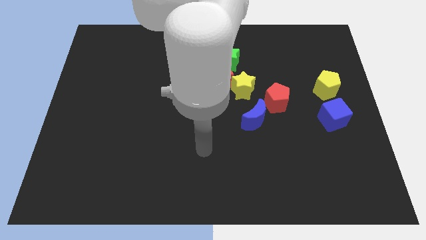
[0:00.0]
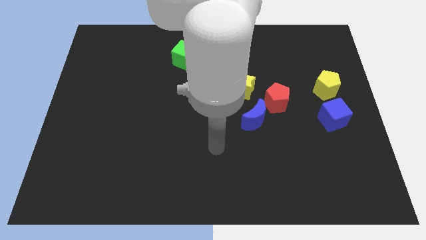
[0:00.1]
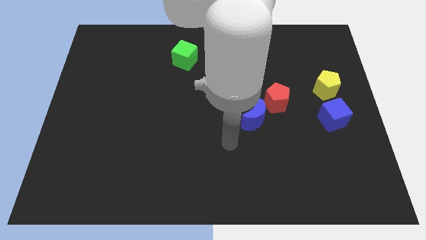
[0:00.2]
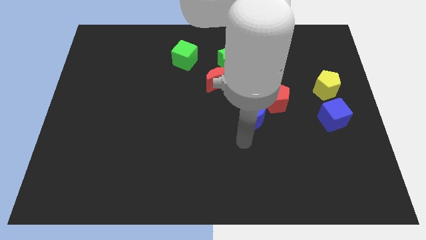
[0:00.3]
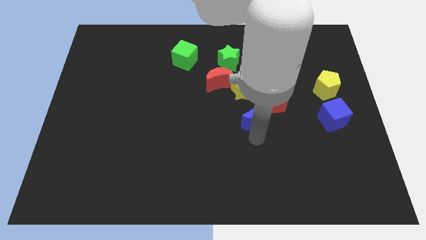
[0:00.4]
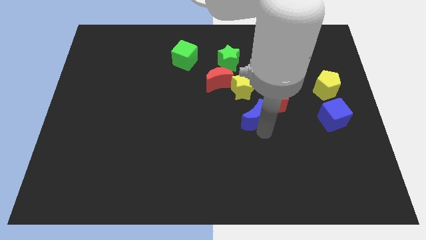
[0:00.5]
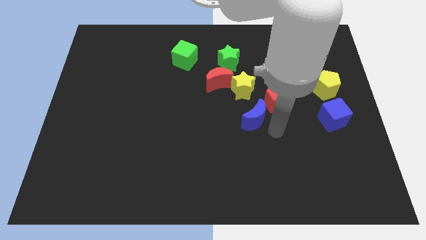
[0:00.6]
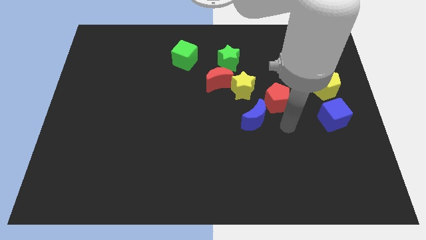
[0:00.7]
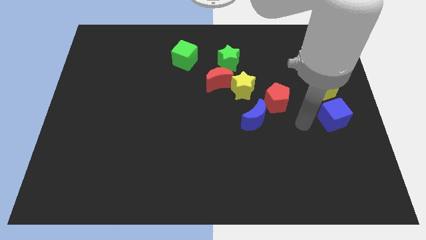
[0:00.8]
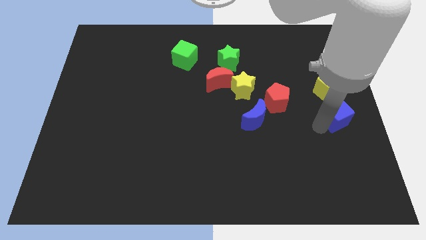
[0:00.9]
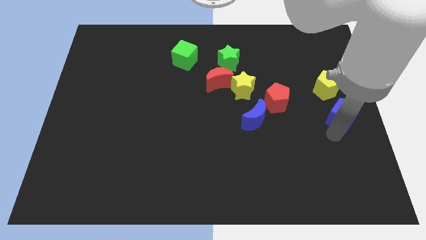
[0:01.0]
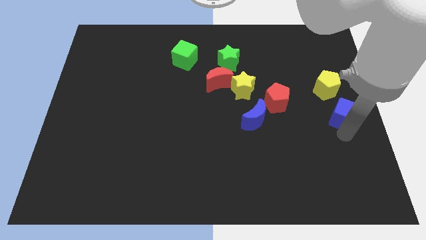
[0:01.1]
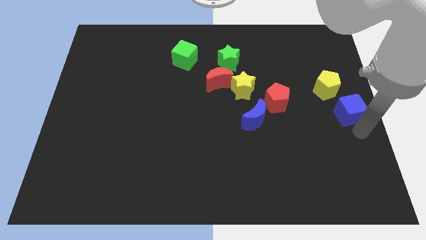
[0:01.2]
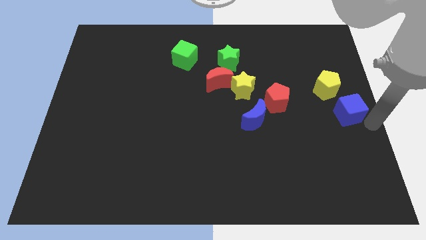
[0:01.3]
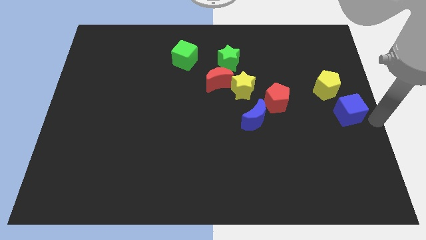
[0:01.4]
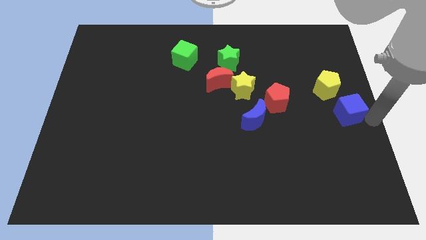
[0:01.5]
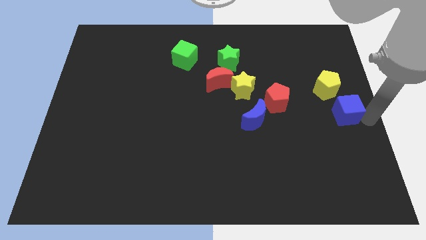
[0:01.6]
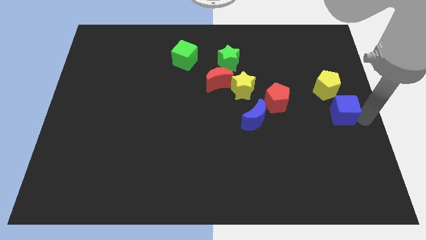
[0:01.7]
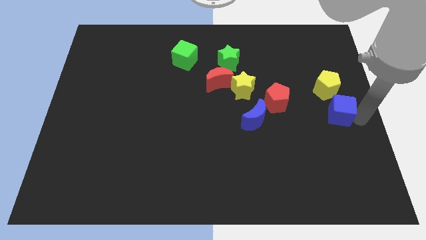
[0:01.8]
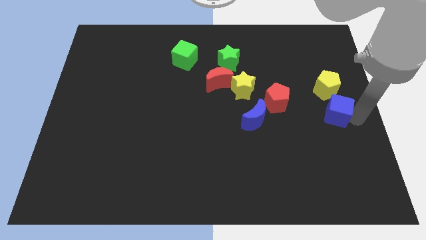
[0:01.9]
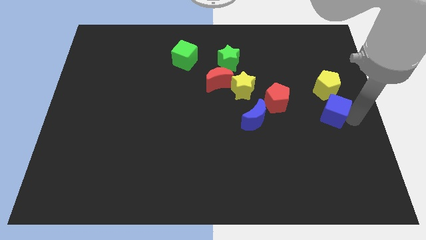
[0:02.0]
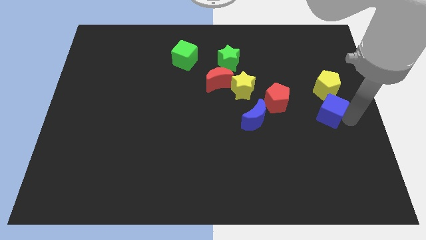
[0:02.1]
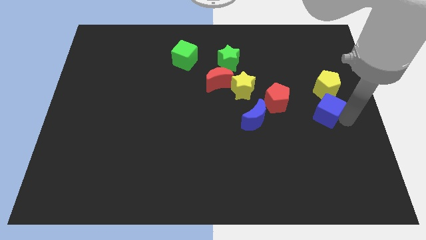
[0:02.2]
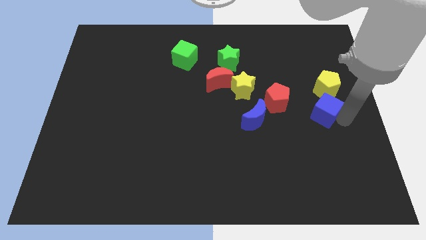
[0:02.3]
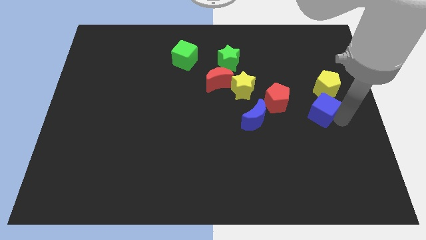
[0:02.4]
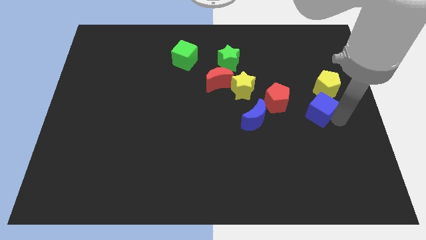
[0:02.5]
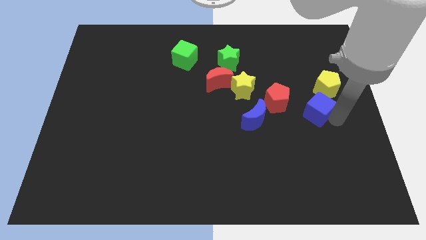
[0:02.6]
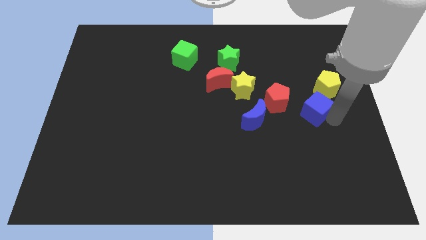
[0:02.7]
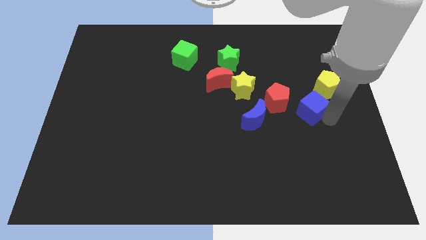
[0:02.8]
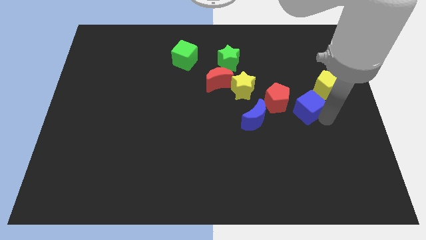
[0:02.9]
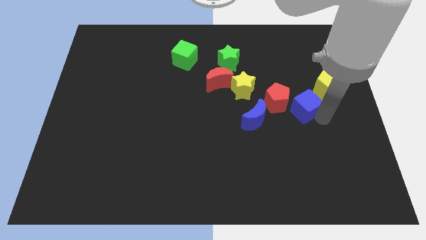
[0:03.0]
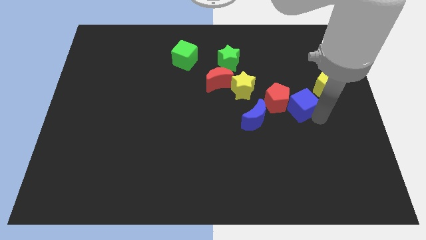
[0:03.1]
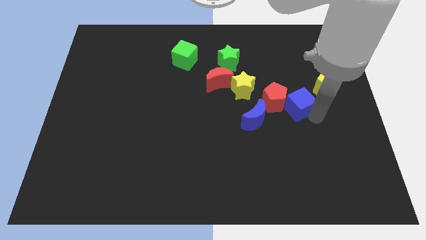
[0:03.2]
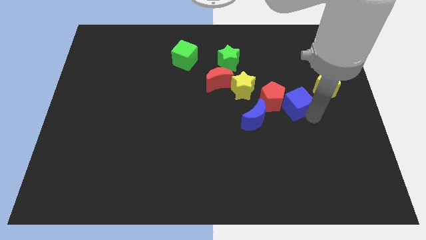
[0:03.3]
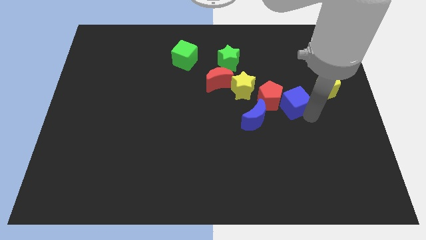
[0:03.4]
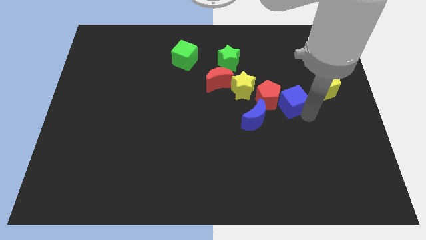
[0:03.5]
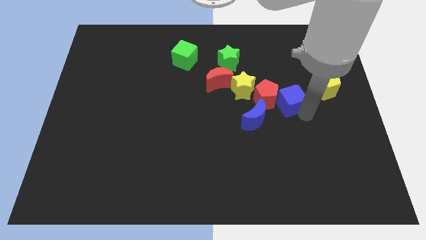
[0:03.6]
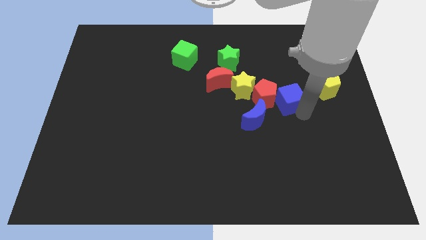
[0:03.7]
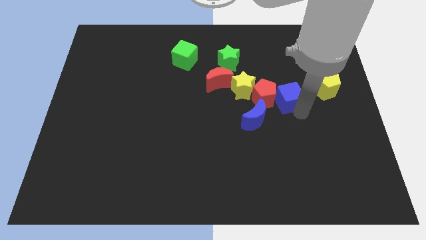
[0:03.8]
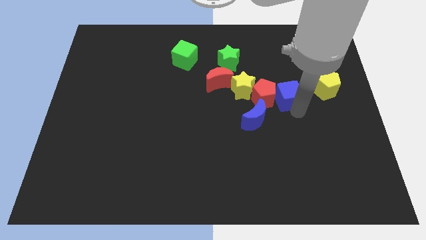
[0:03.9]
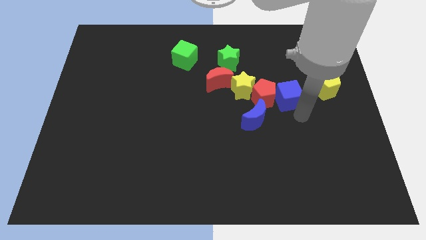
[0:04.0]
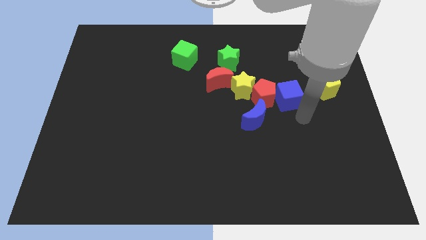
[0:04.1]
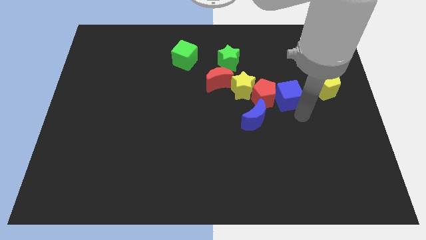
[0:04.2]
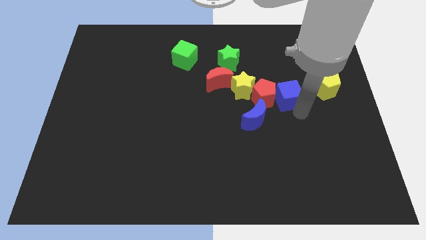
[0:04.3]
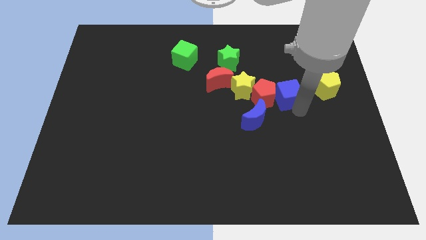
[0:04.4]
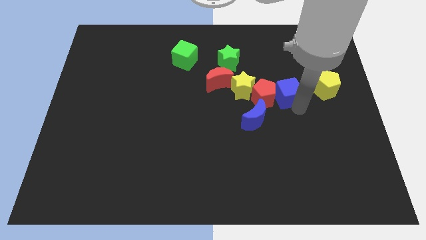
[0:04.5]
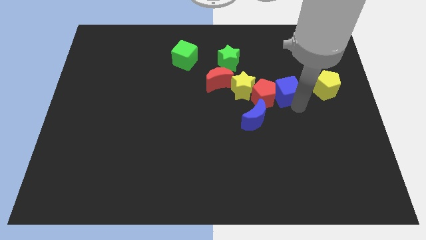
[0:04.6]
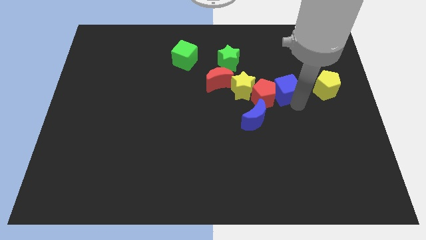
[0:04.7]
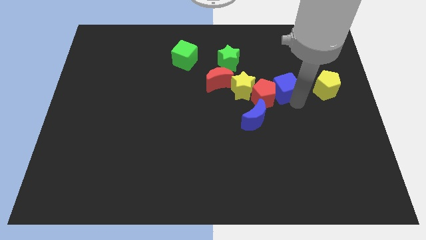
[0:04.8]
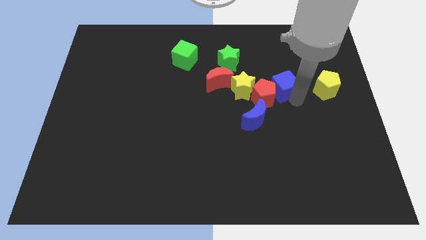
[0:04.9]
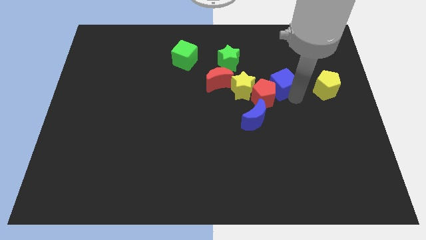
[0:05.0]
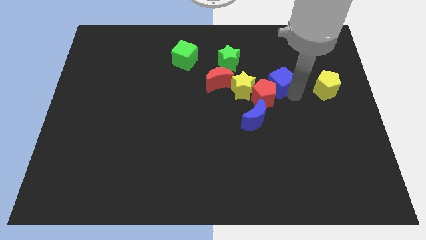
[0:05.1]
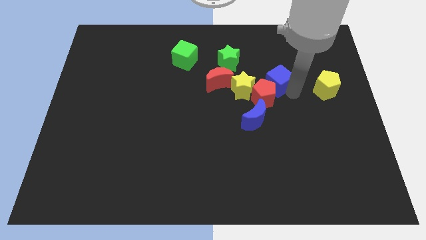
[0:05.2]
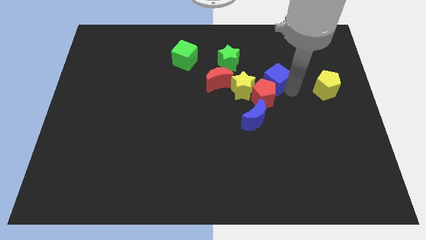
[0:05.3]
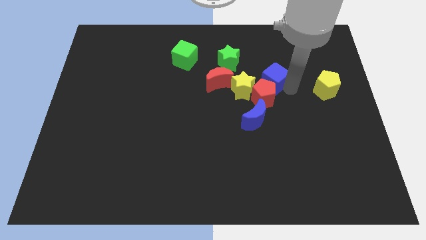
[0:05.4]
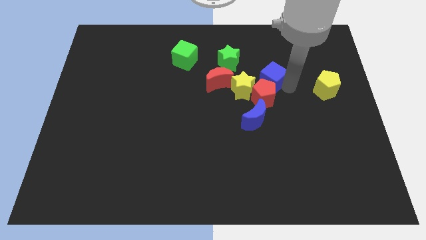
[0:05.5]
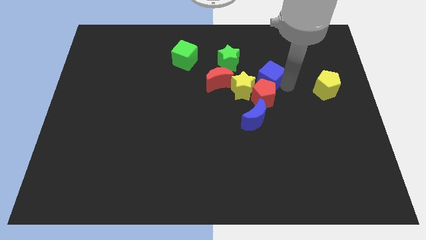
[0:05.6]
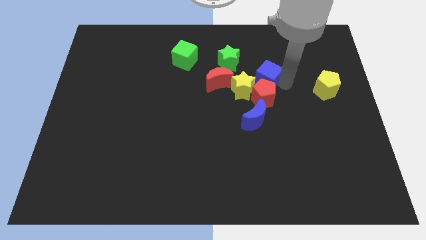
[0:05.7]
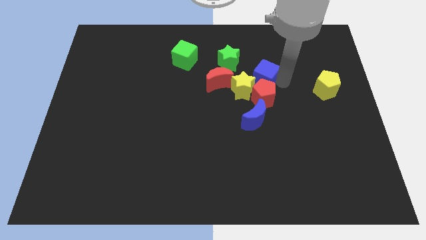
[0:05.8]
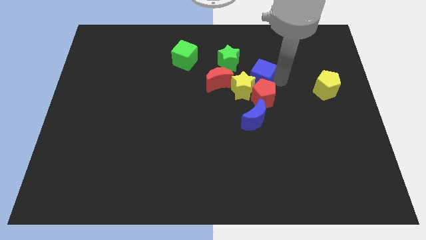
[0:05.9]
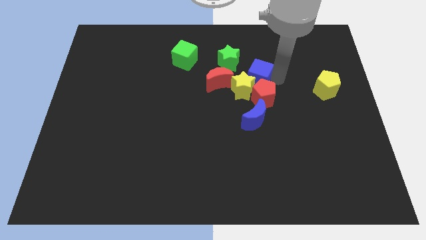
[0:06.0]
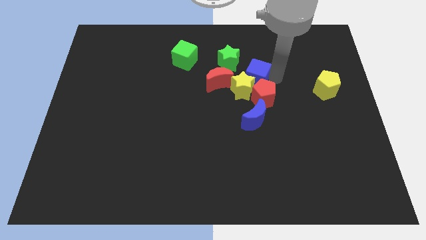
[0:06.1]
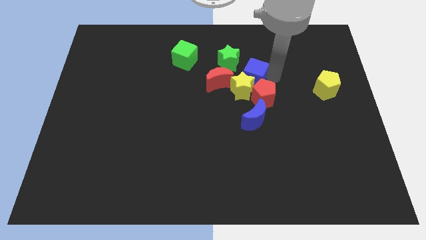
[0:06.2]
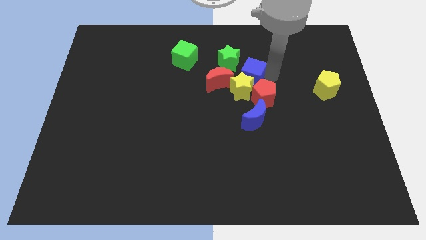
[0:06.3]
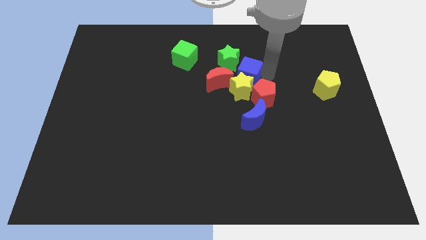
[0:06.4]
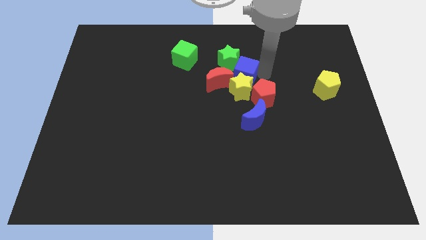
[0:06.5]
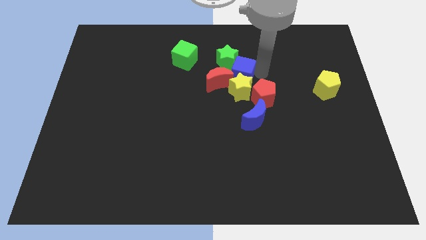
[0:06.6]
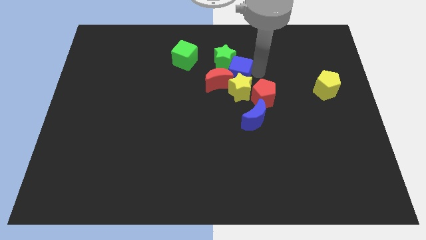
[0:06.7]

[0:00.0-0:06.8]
slide the blue cube towards the red moon
